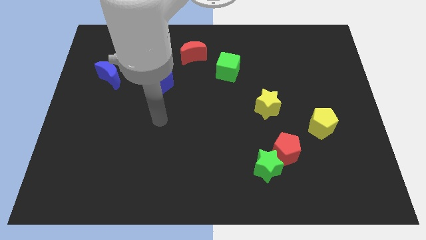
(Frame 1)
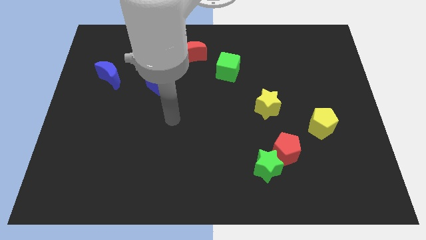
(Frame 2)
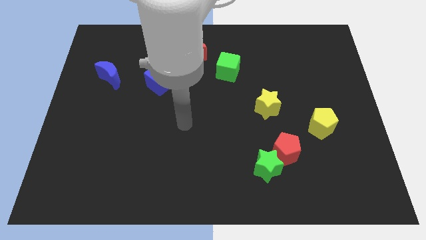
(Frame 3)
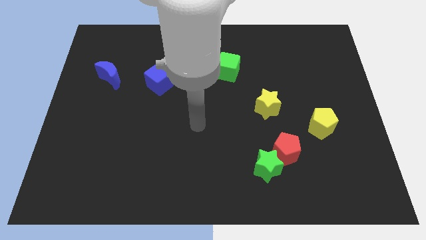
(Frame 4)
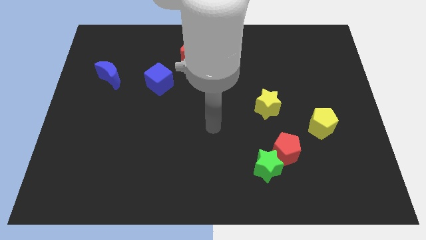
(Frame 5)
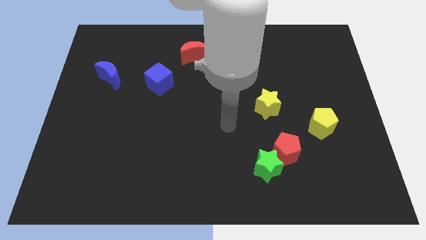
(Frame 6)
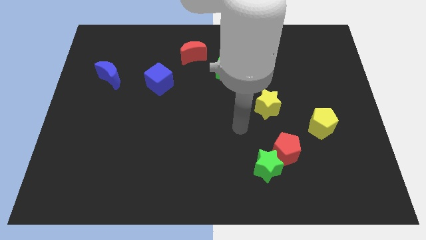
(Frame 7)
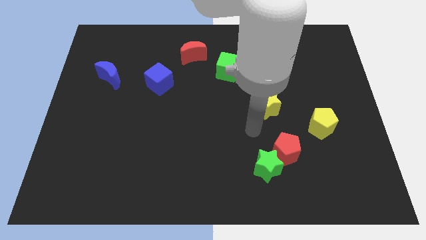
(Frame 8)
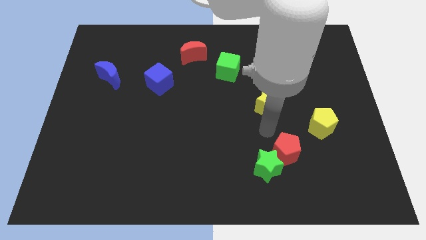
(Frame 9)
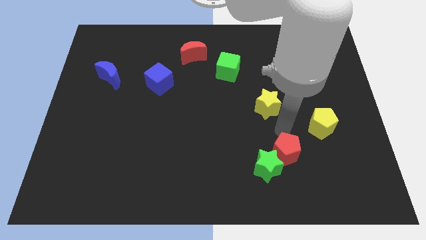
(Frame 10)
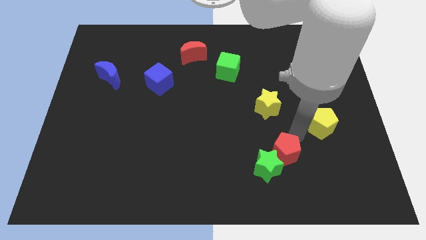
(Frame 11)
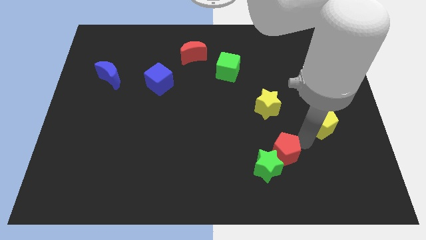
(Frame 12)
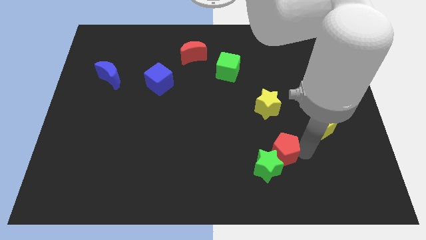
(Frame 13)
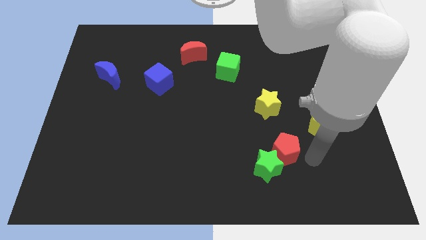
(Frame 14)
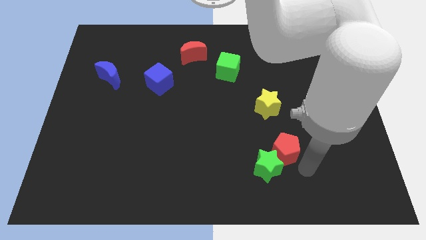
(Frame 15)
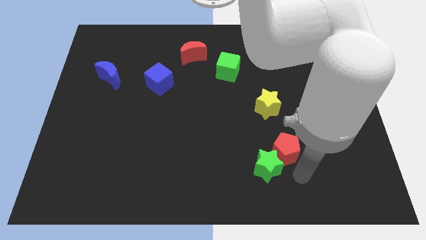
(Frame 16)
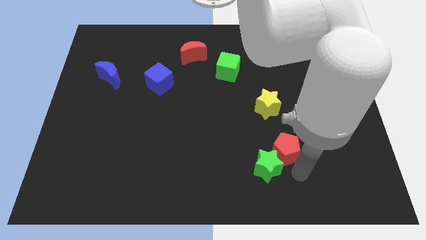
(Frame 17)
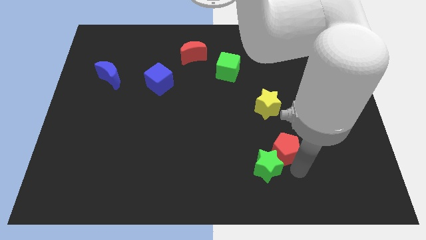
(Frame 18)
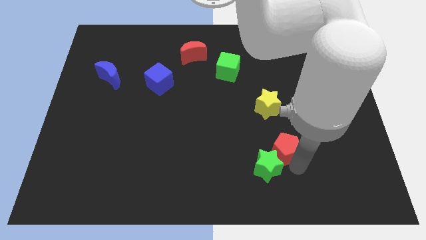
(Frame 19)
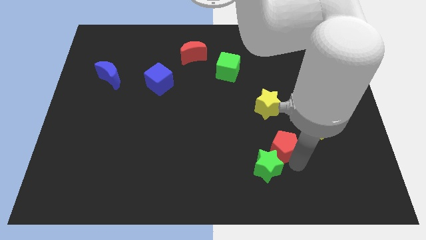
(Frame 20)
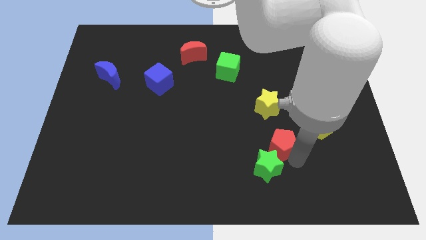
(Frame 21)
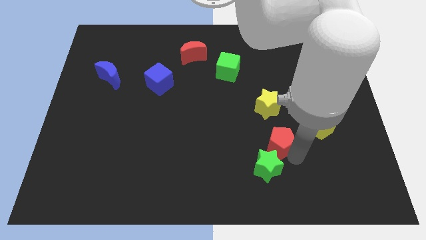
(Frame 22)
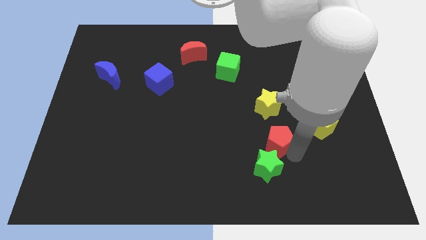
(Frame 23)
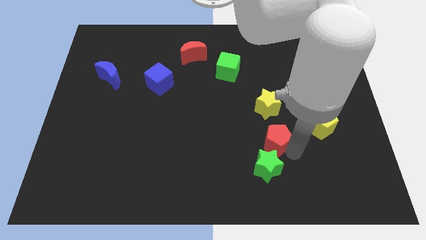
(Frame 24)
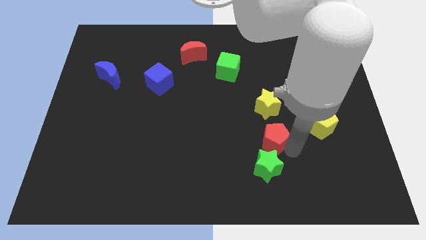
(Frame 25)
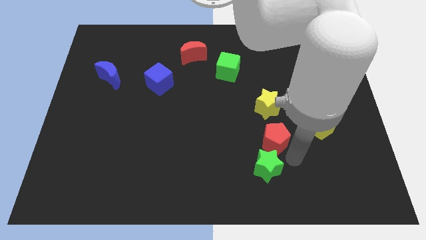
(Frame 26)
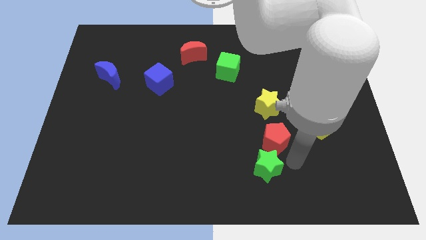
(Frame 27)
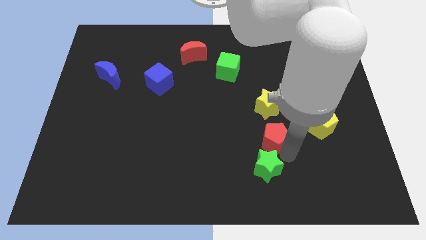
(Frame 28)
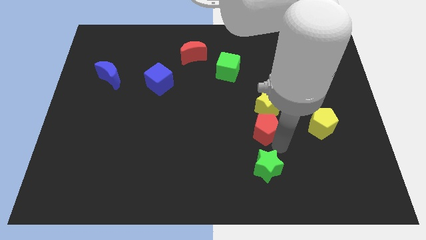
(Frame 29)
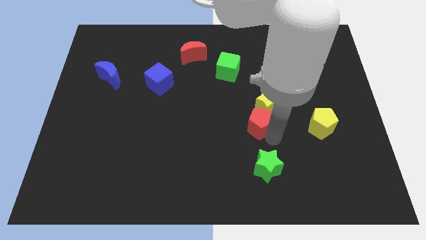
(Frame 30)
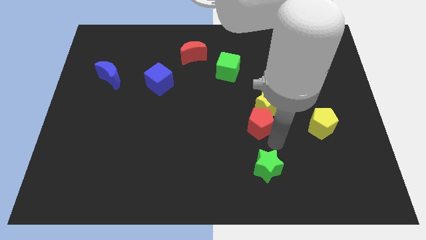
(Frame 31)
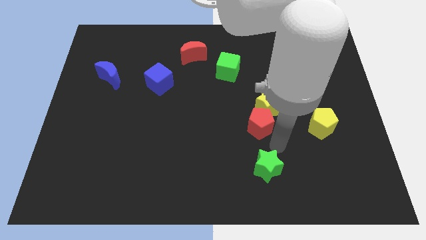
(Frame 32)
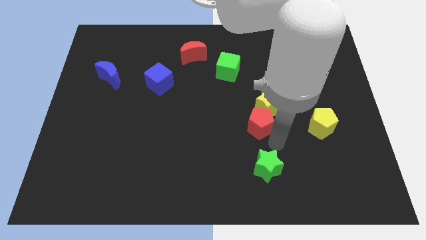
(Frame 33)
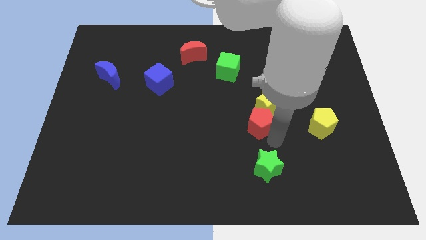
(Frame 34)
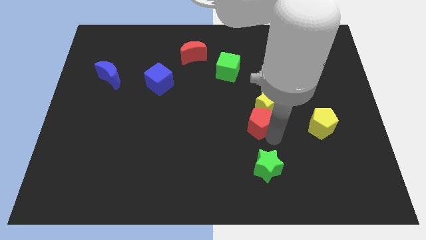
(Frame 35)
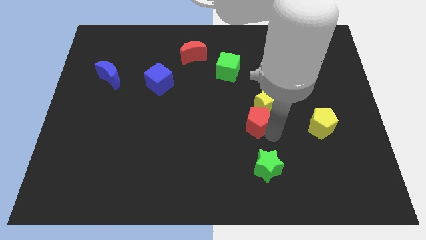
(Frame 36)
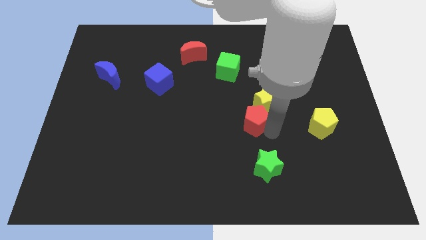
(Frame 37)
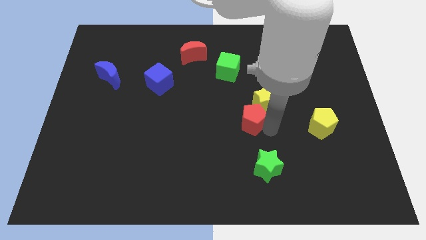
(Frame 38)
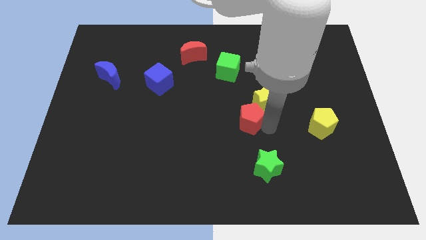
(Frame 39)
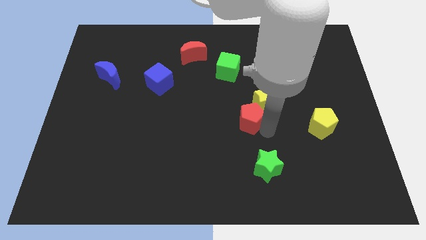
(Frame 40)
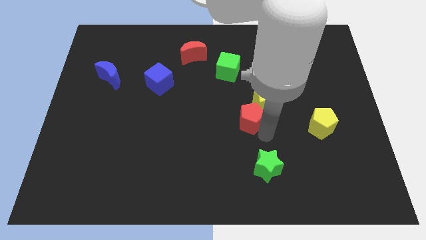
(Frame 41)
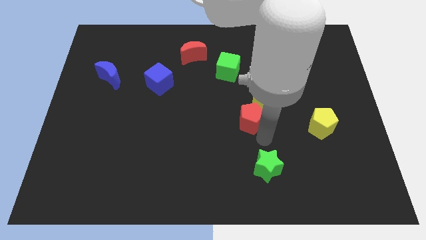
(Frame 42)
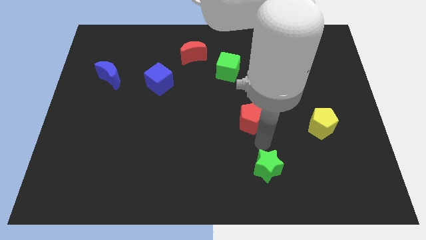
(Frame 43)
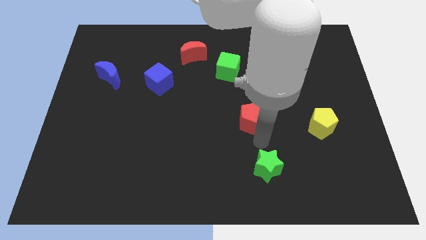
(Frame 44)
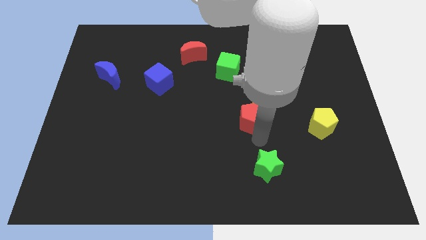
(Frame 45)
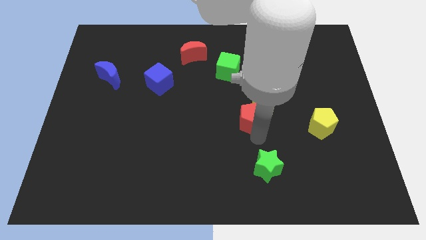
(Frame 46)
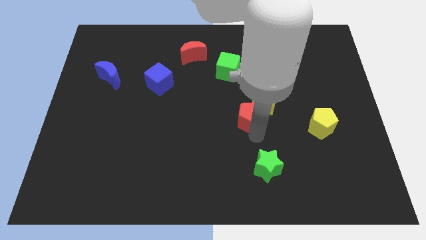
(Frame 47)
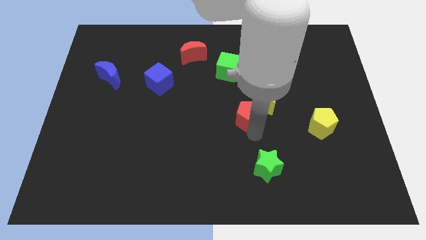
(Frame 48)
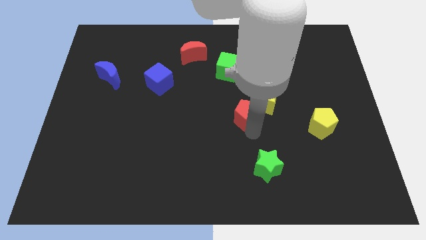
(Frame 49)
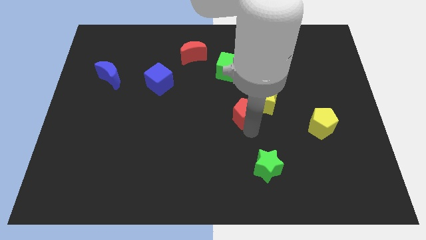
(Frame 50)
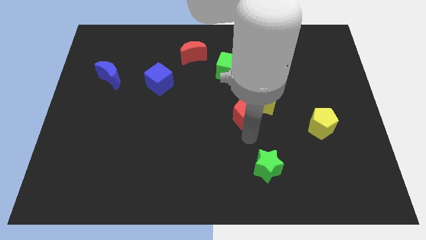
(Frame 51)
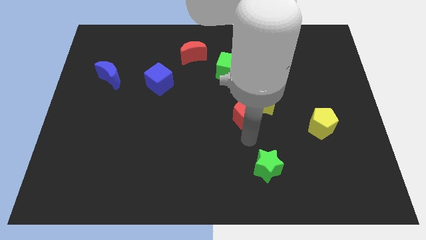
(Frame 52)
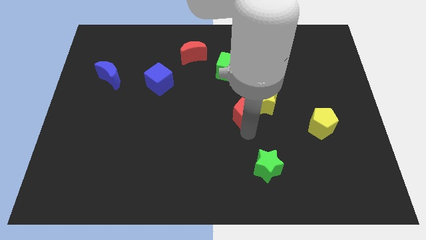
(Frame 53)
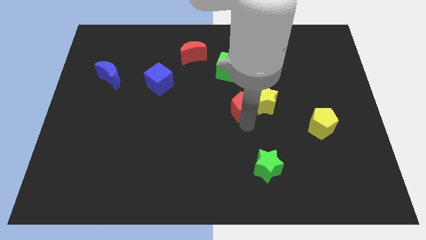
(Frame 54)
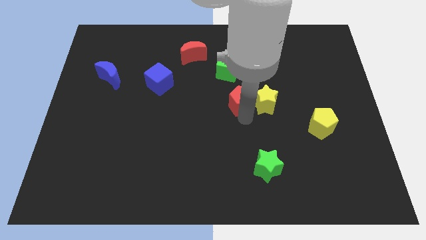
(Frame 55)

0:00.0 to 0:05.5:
put the red pentagon diagonally up and to the left of the yellow star

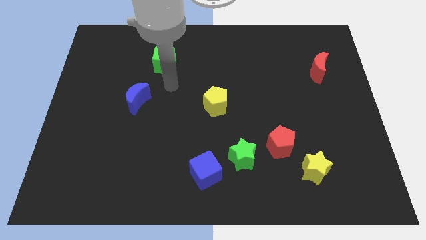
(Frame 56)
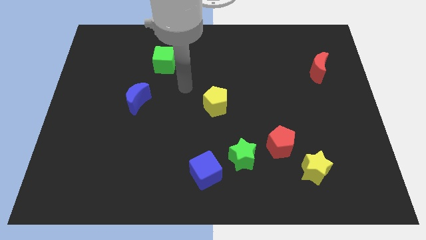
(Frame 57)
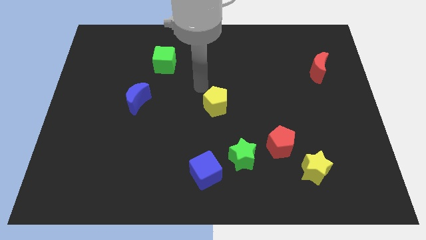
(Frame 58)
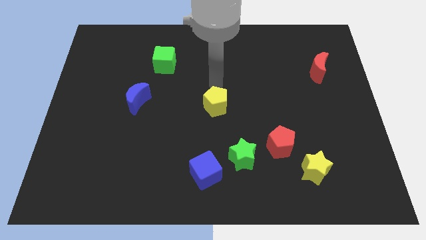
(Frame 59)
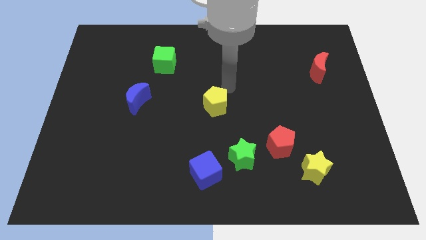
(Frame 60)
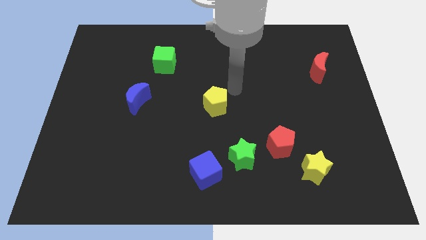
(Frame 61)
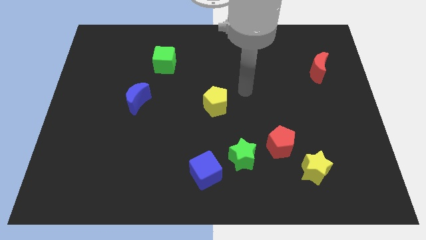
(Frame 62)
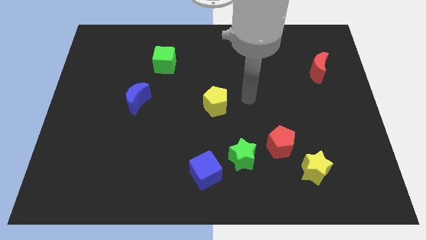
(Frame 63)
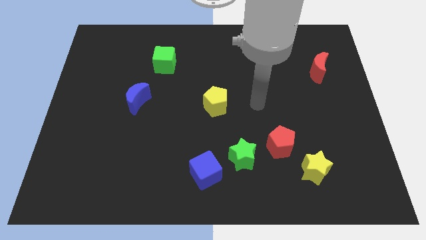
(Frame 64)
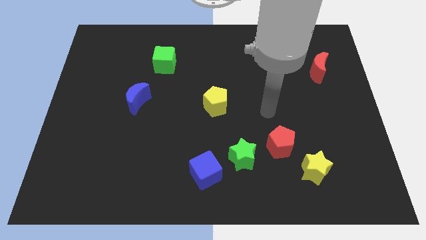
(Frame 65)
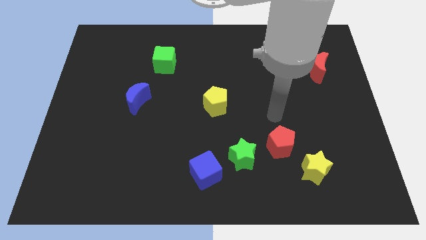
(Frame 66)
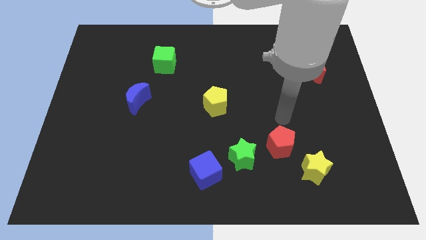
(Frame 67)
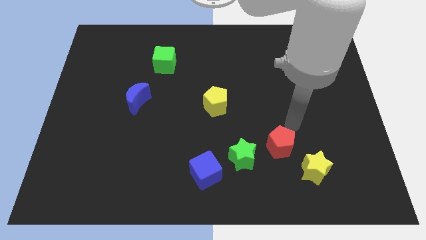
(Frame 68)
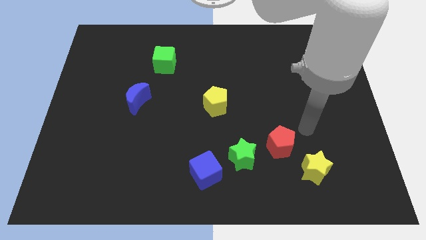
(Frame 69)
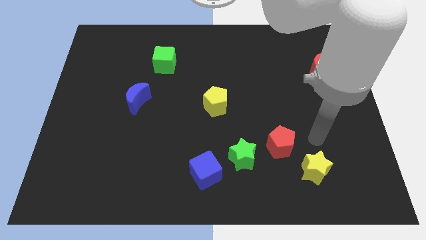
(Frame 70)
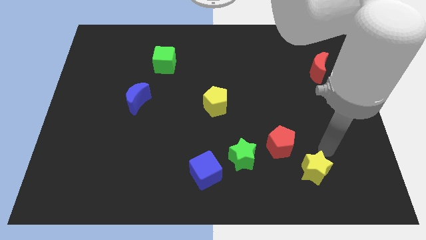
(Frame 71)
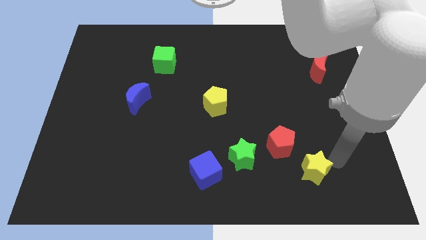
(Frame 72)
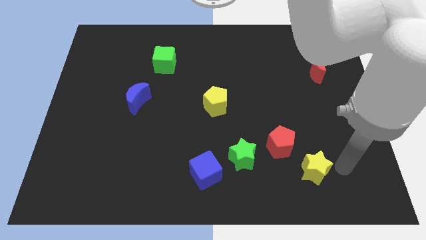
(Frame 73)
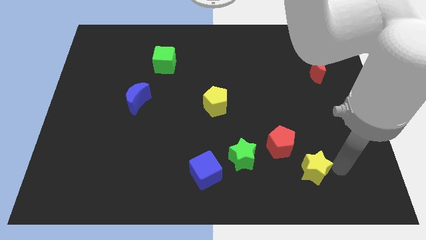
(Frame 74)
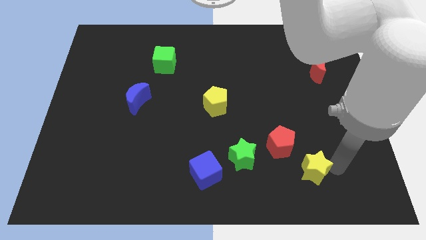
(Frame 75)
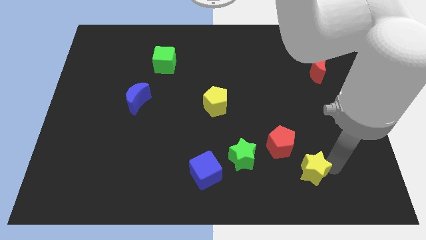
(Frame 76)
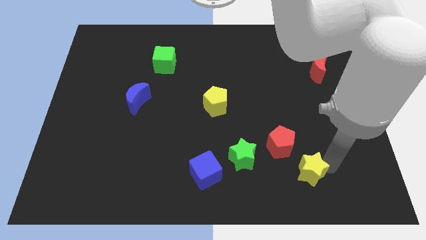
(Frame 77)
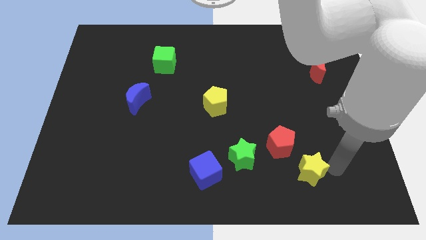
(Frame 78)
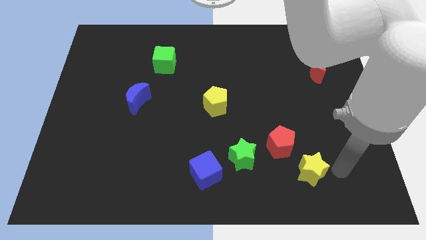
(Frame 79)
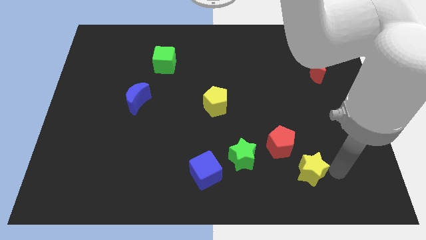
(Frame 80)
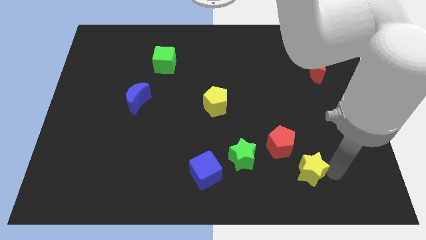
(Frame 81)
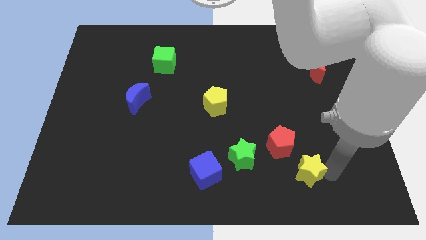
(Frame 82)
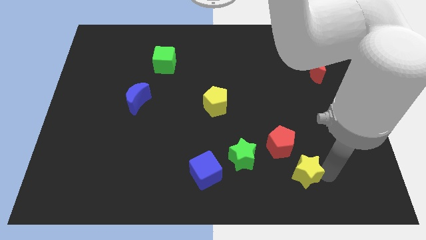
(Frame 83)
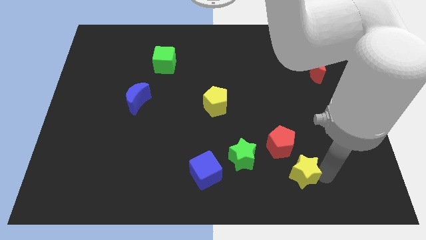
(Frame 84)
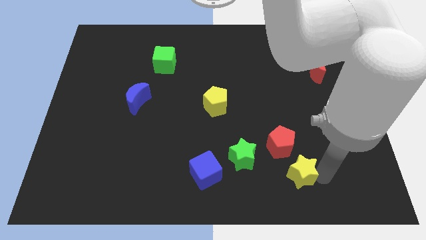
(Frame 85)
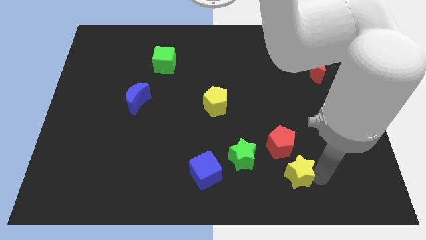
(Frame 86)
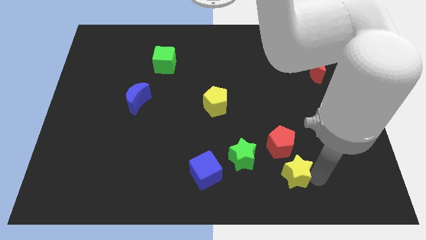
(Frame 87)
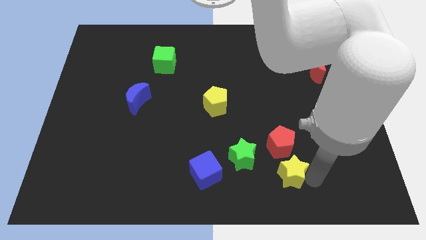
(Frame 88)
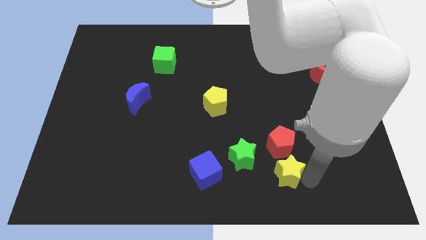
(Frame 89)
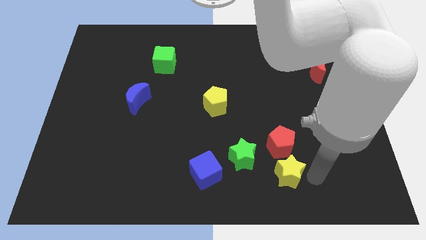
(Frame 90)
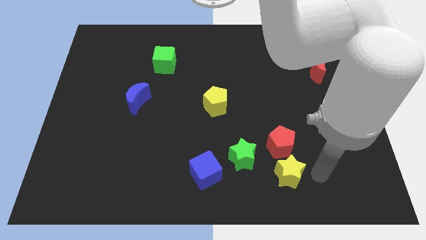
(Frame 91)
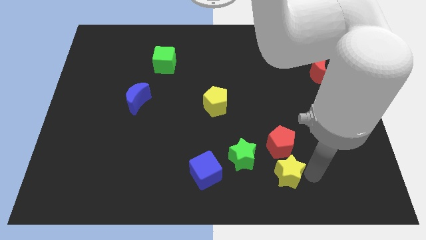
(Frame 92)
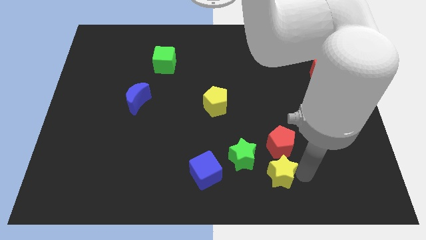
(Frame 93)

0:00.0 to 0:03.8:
move the yellow star to the right side of the blue cube
